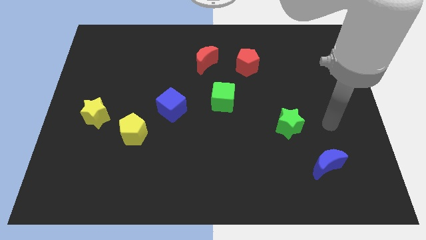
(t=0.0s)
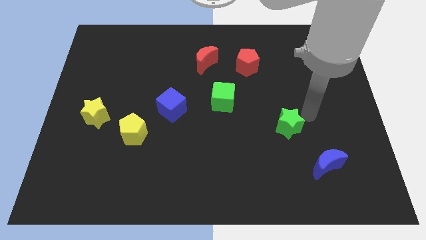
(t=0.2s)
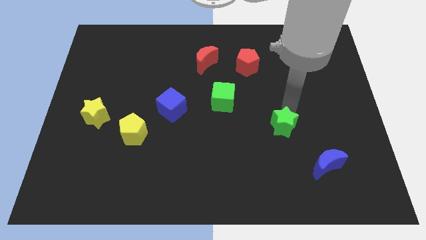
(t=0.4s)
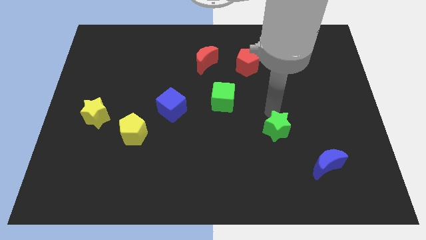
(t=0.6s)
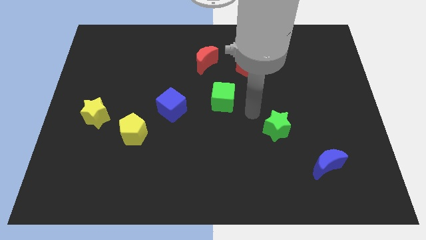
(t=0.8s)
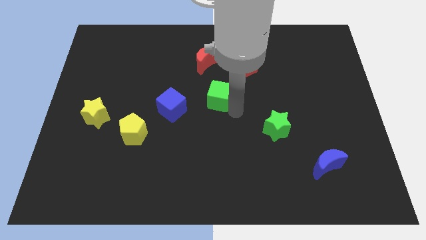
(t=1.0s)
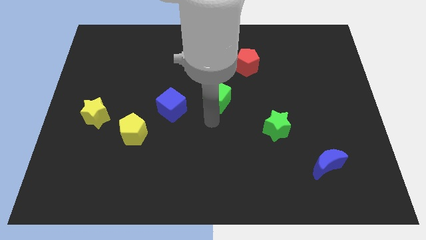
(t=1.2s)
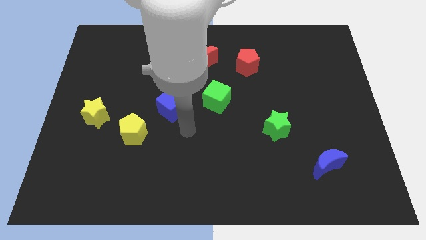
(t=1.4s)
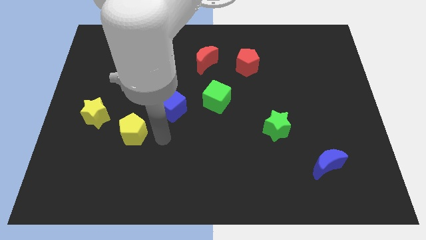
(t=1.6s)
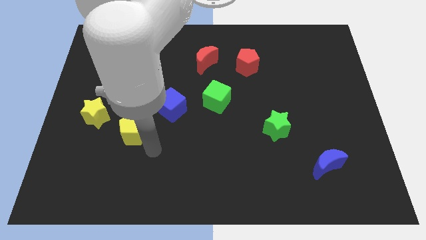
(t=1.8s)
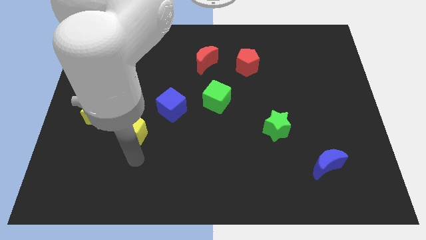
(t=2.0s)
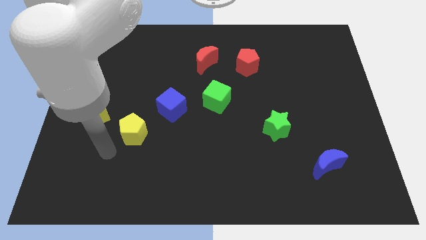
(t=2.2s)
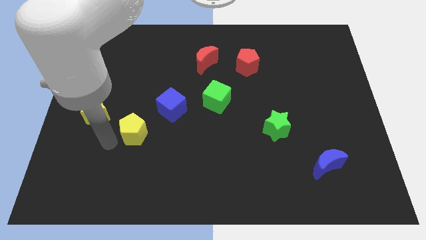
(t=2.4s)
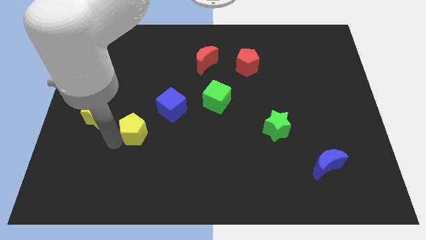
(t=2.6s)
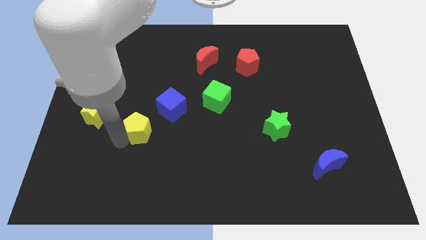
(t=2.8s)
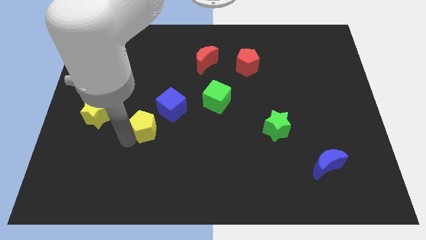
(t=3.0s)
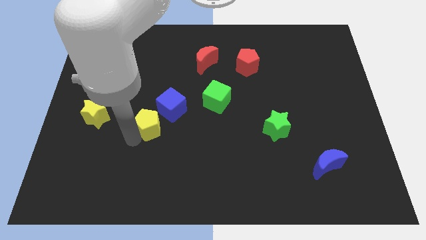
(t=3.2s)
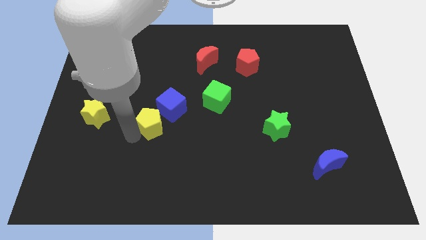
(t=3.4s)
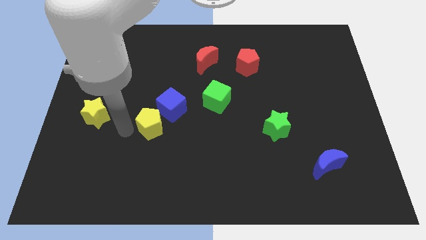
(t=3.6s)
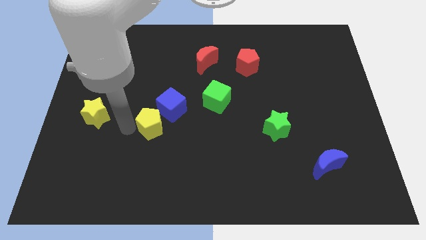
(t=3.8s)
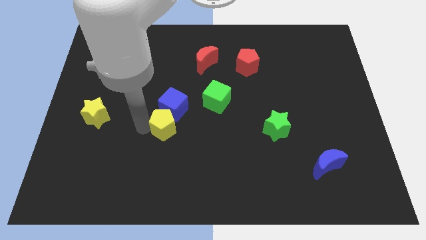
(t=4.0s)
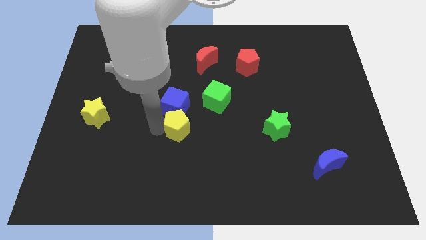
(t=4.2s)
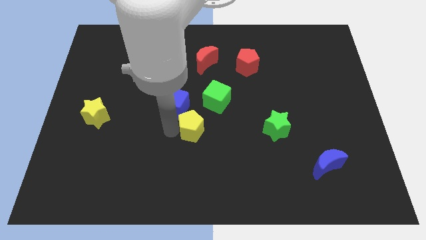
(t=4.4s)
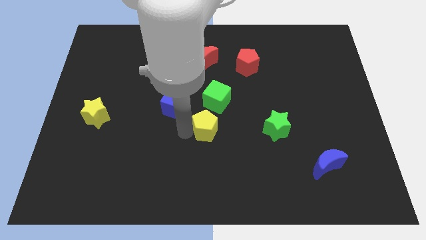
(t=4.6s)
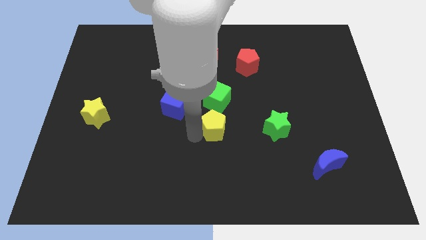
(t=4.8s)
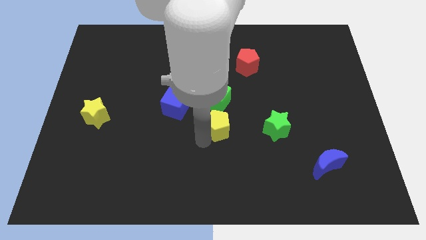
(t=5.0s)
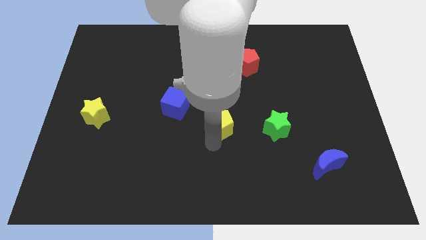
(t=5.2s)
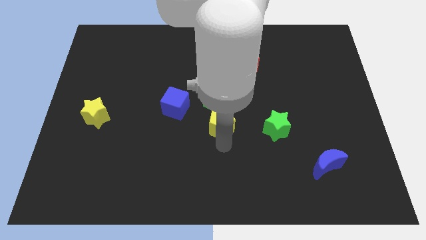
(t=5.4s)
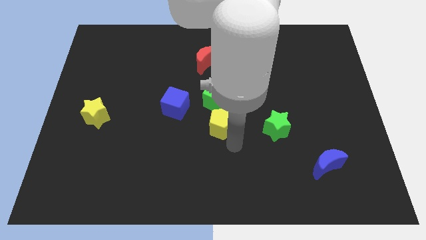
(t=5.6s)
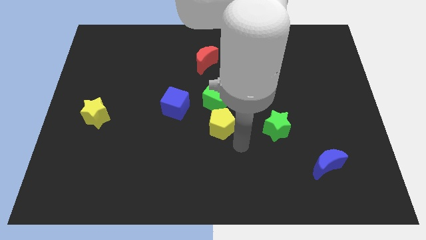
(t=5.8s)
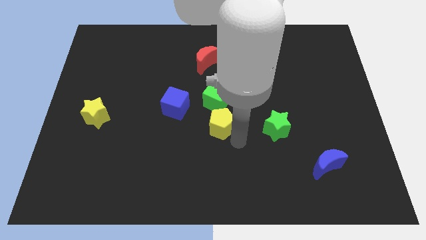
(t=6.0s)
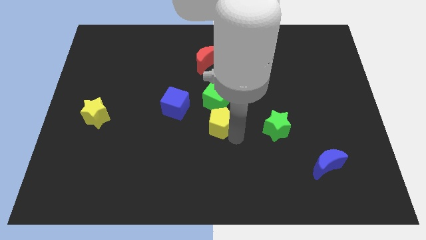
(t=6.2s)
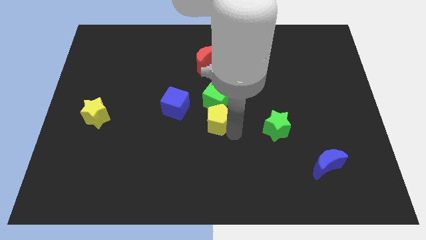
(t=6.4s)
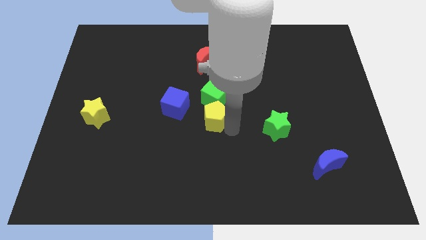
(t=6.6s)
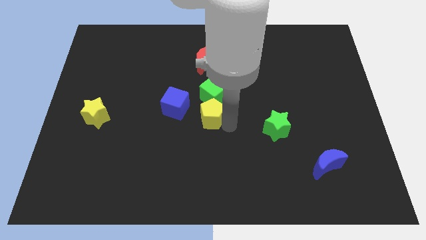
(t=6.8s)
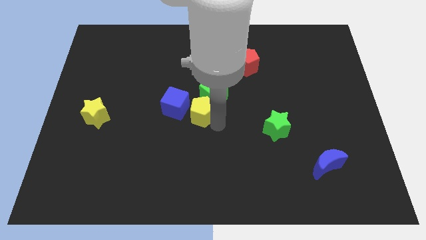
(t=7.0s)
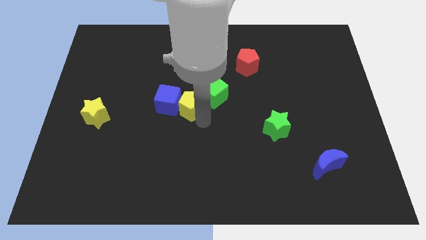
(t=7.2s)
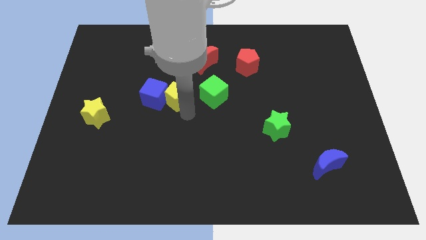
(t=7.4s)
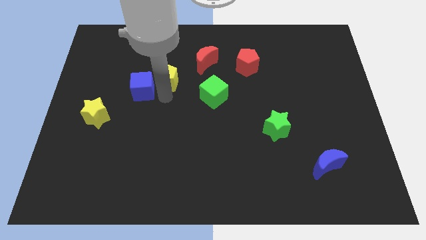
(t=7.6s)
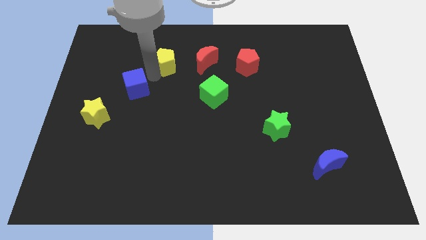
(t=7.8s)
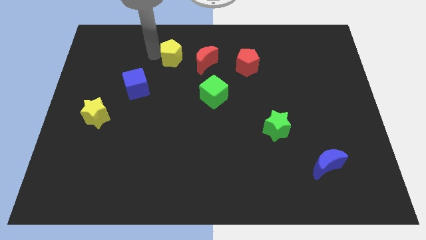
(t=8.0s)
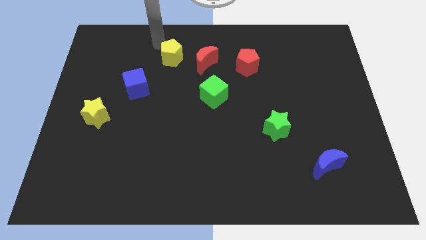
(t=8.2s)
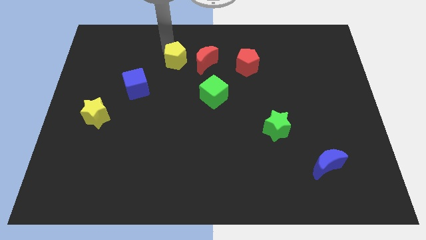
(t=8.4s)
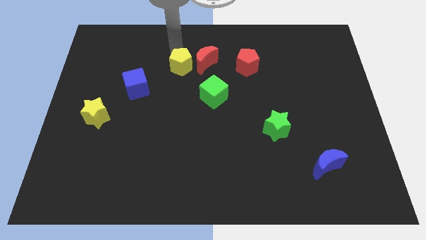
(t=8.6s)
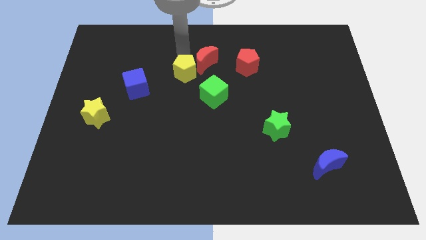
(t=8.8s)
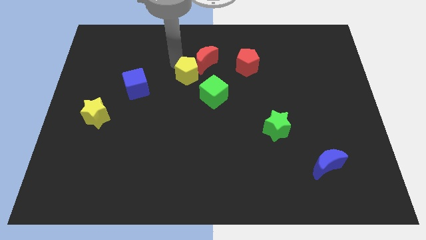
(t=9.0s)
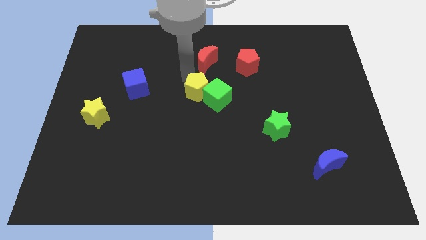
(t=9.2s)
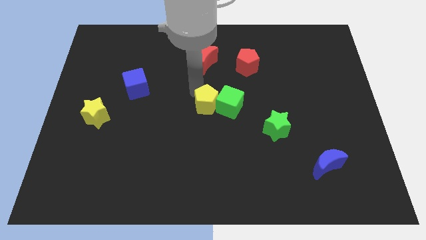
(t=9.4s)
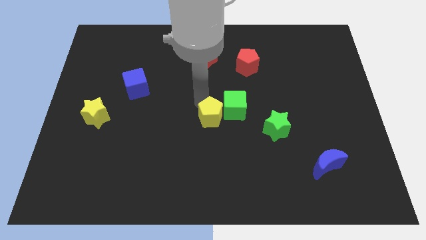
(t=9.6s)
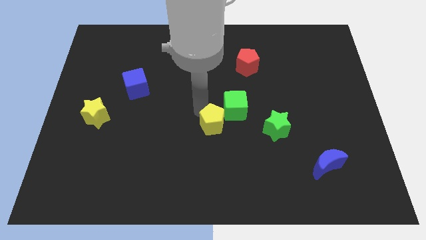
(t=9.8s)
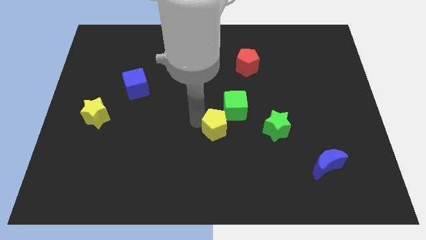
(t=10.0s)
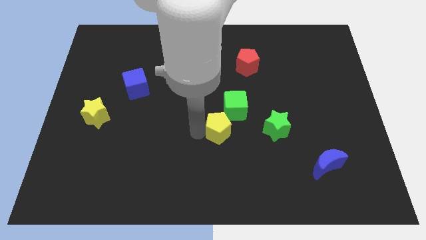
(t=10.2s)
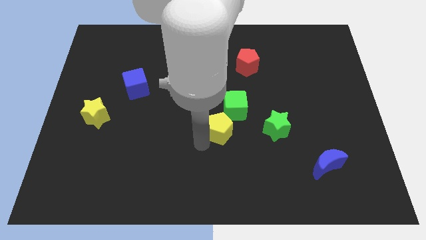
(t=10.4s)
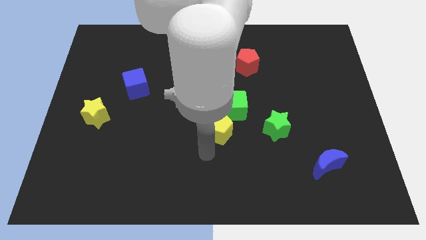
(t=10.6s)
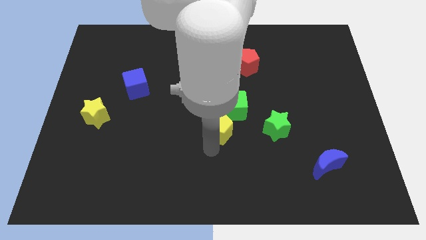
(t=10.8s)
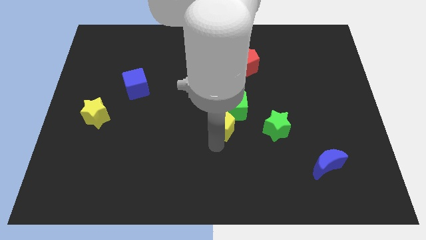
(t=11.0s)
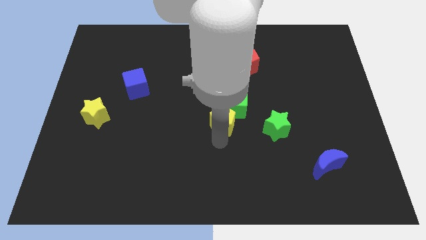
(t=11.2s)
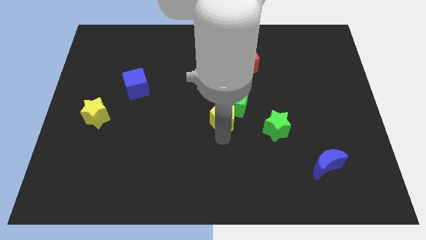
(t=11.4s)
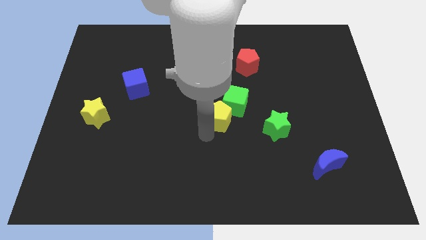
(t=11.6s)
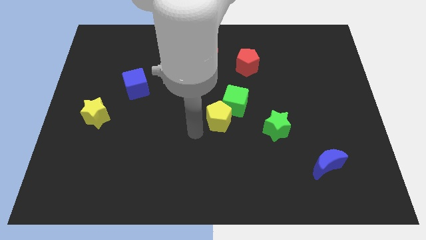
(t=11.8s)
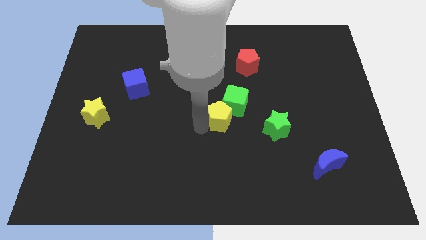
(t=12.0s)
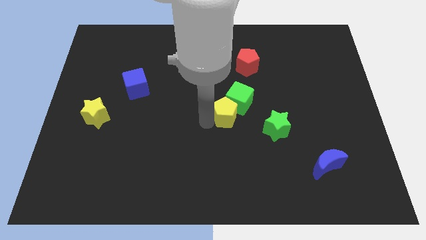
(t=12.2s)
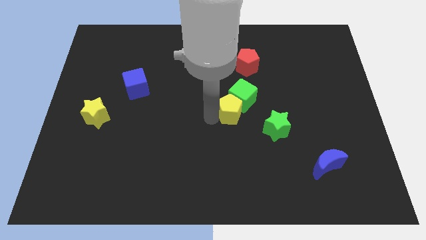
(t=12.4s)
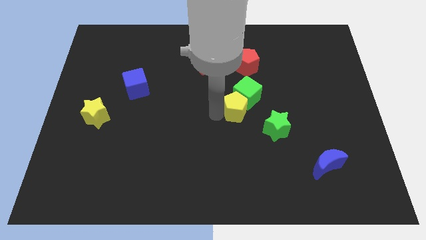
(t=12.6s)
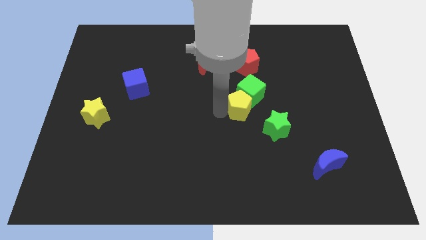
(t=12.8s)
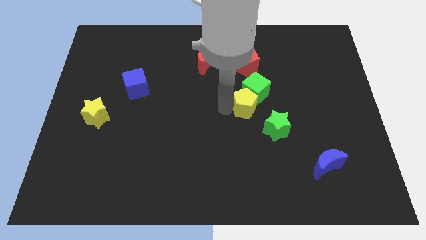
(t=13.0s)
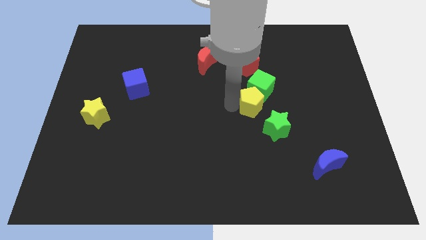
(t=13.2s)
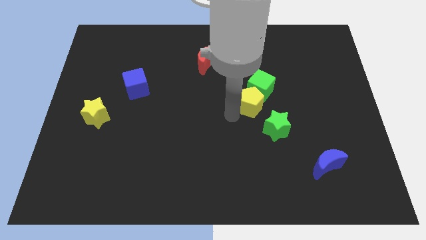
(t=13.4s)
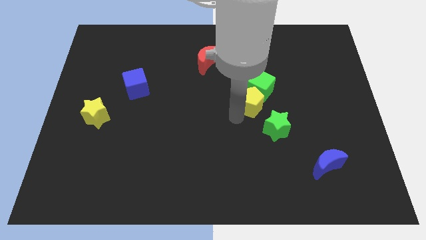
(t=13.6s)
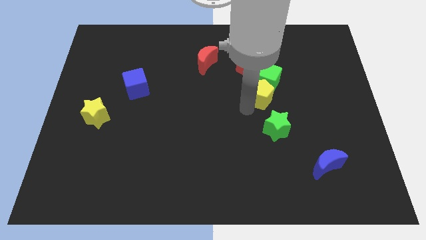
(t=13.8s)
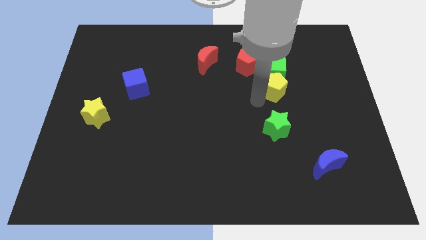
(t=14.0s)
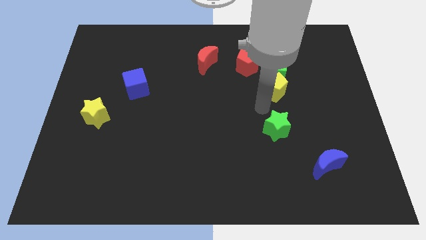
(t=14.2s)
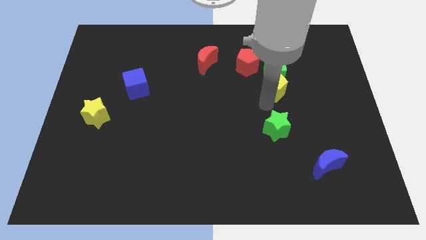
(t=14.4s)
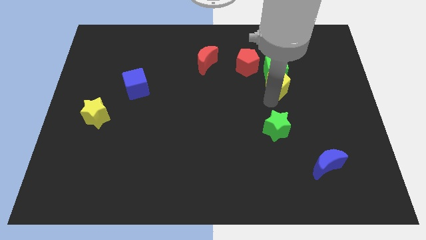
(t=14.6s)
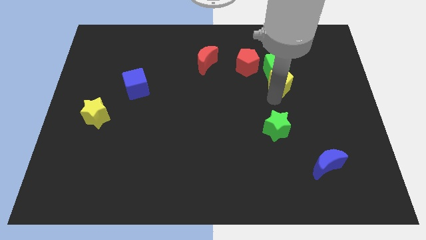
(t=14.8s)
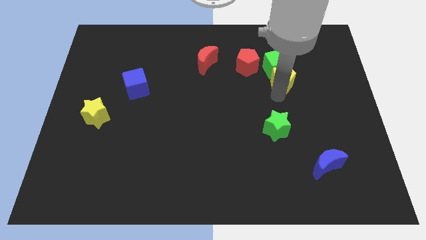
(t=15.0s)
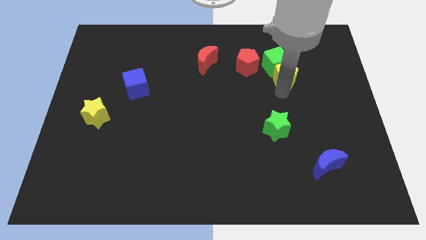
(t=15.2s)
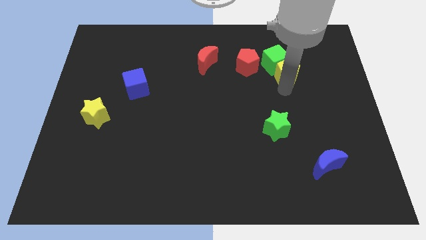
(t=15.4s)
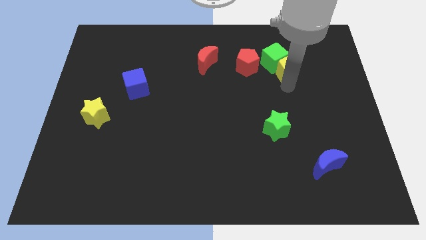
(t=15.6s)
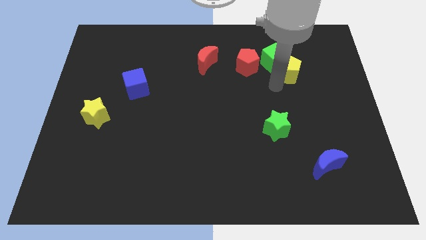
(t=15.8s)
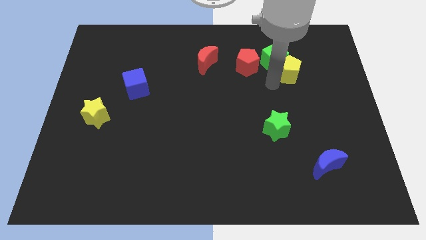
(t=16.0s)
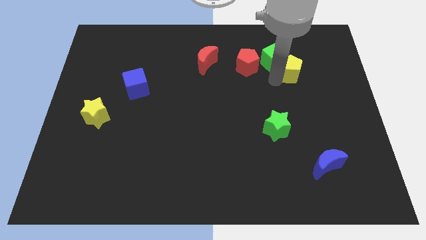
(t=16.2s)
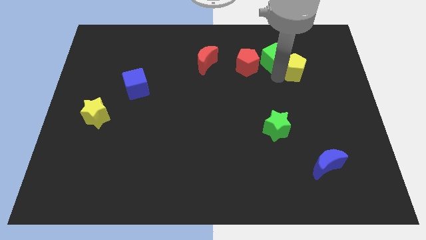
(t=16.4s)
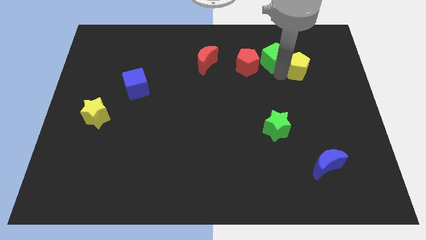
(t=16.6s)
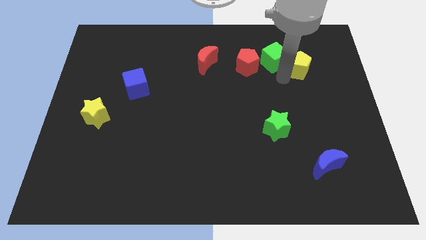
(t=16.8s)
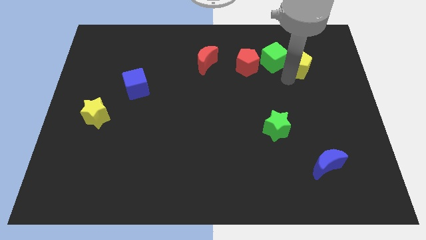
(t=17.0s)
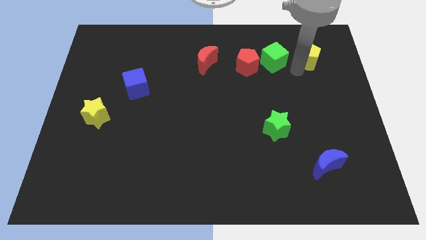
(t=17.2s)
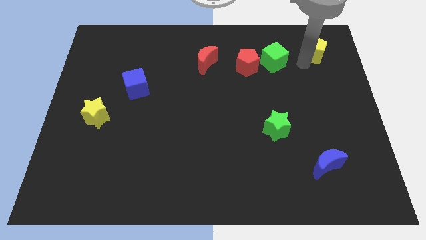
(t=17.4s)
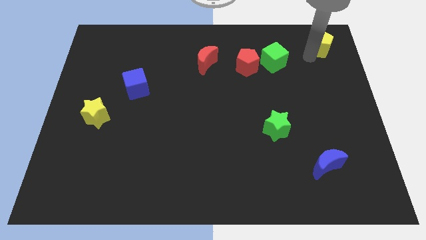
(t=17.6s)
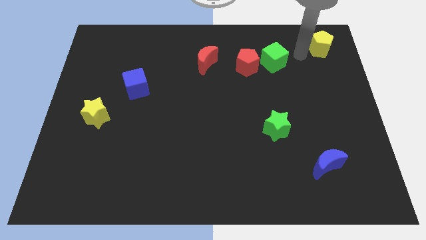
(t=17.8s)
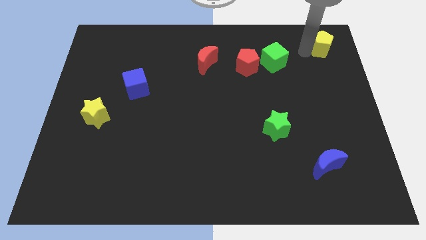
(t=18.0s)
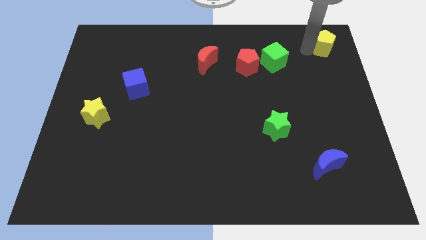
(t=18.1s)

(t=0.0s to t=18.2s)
push the yellow pentagon to the top right corner
